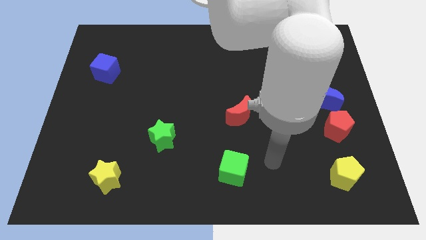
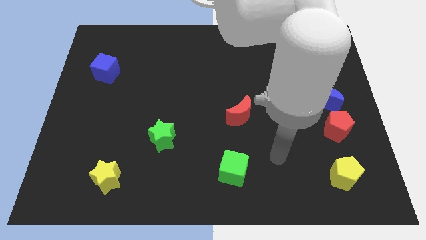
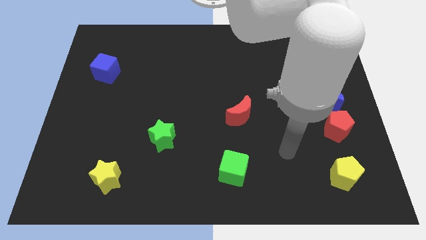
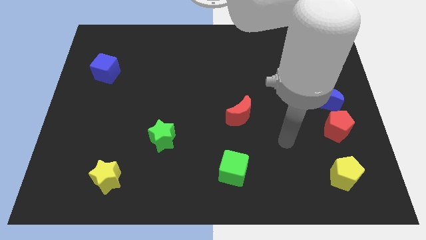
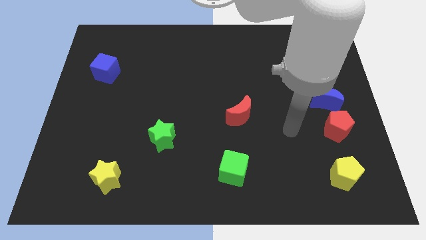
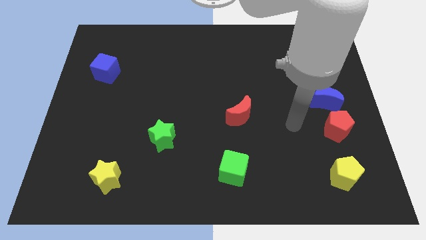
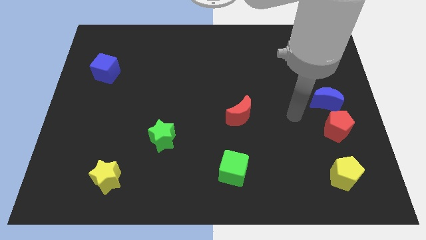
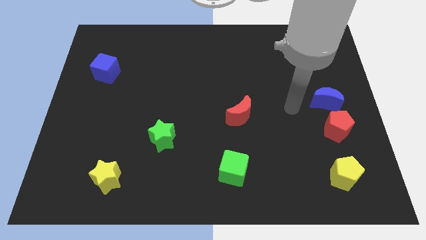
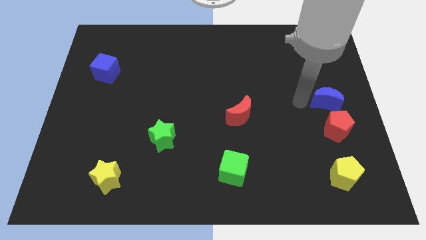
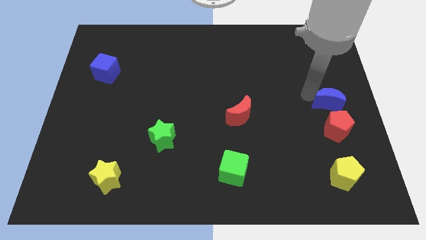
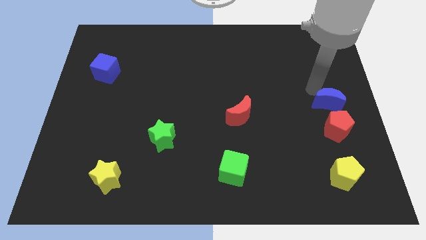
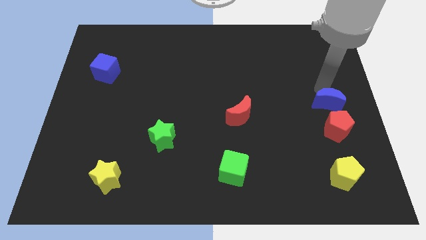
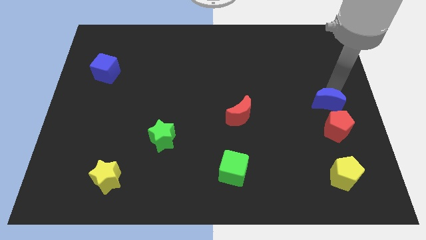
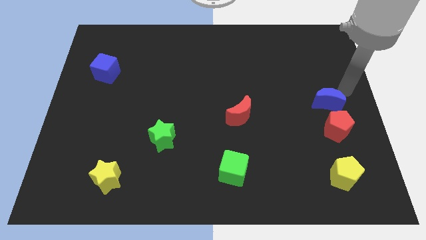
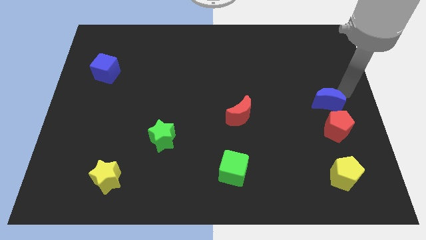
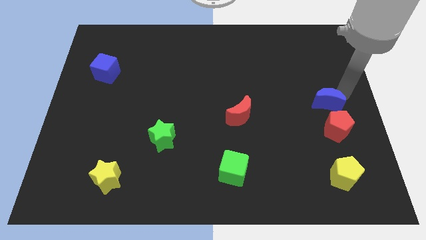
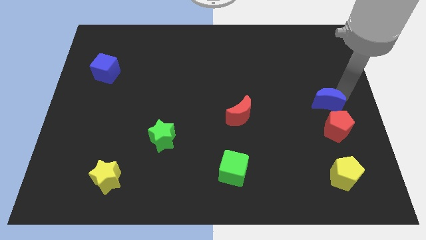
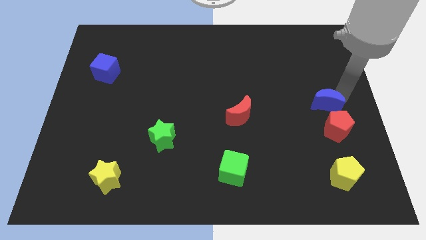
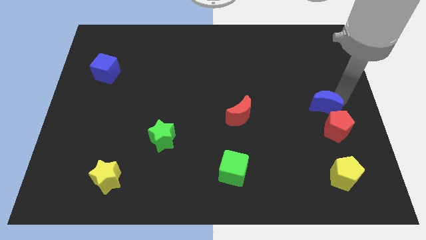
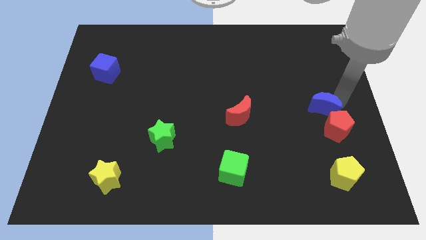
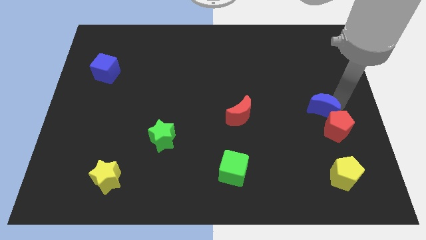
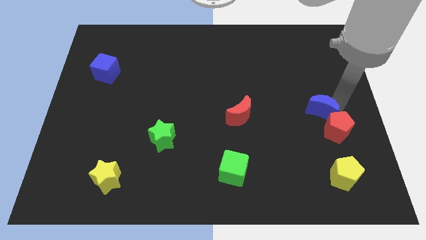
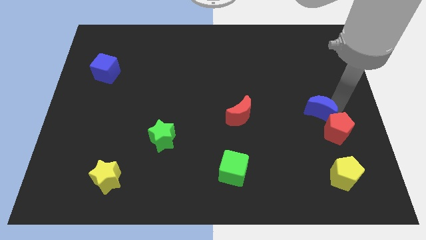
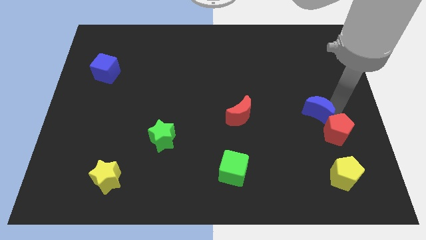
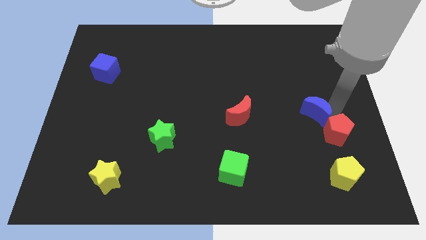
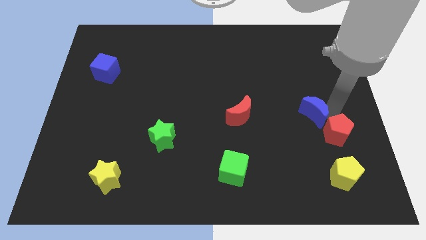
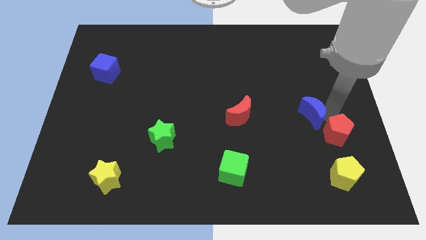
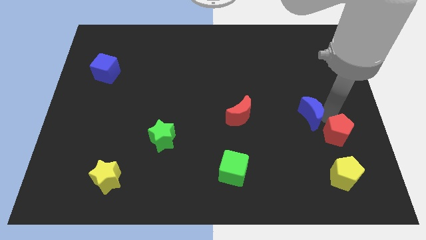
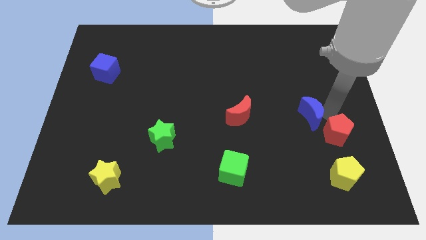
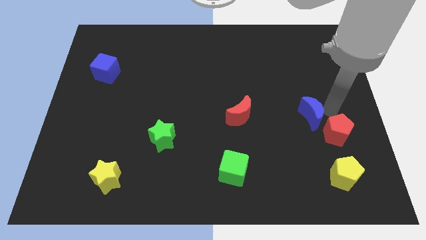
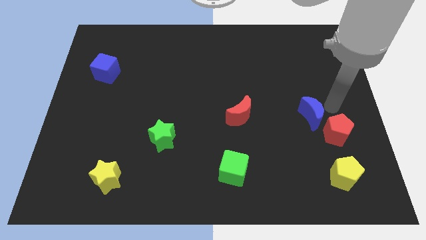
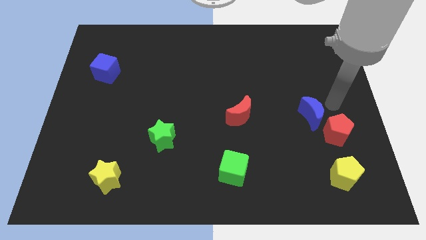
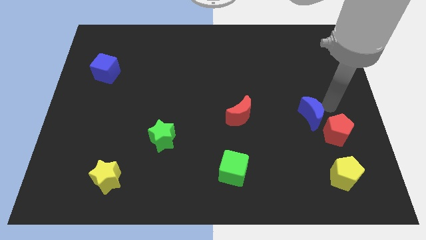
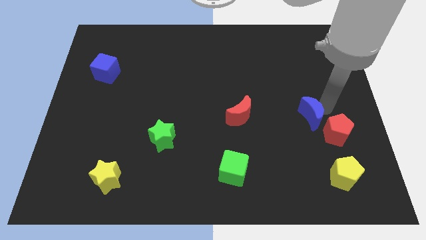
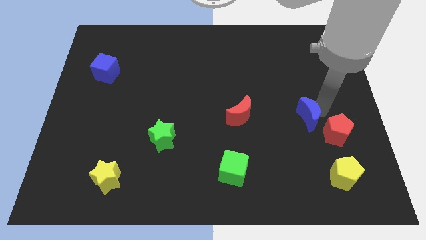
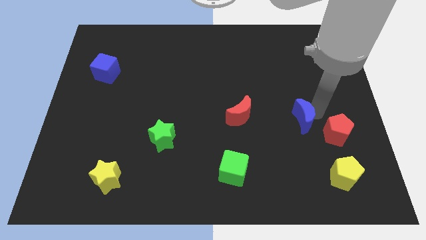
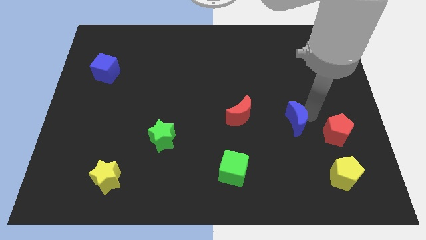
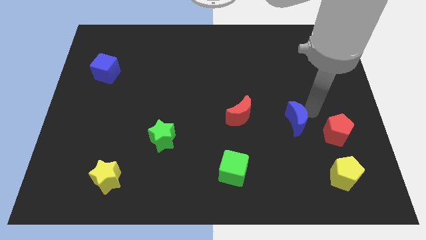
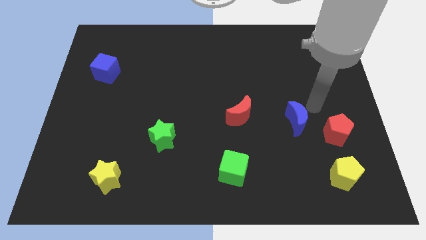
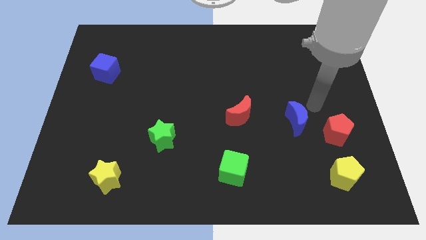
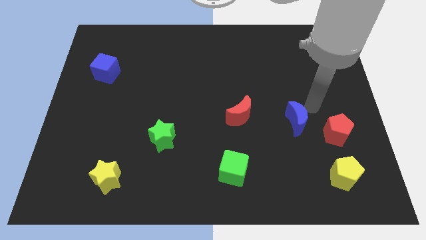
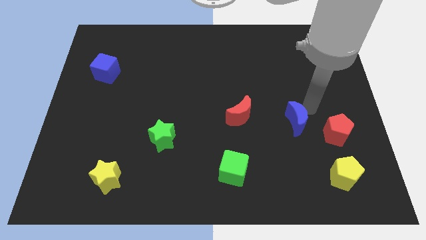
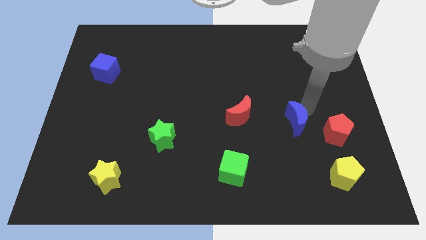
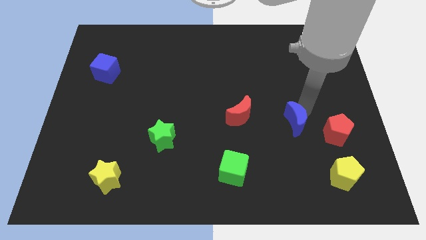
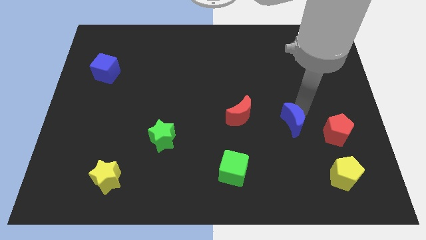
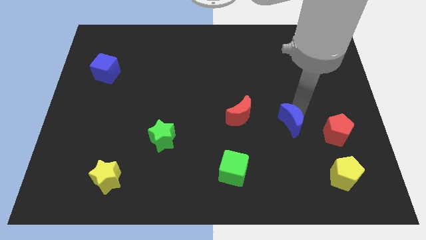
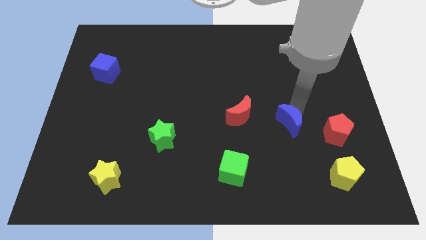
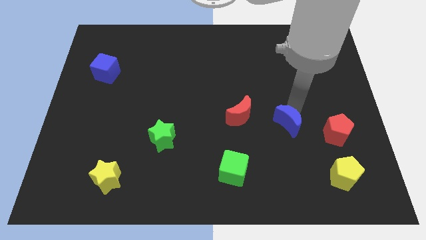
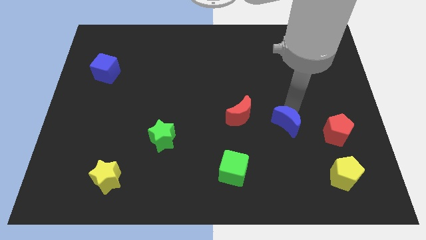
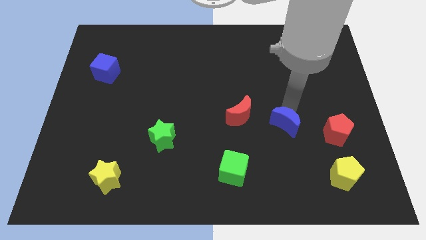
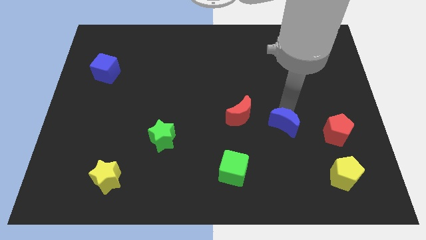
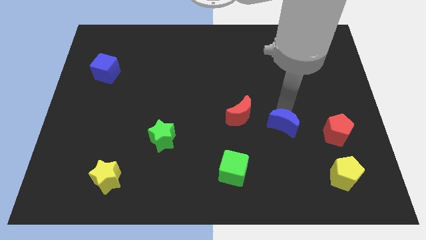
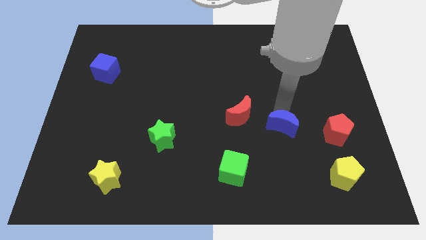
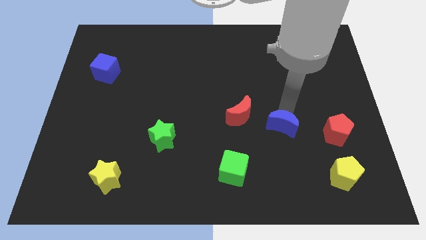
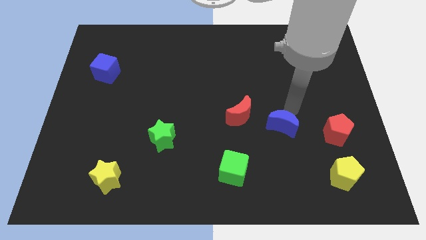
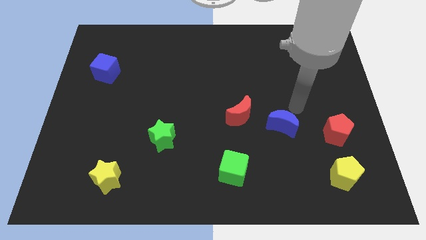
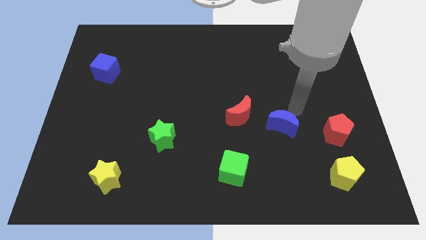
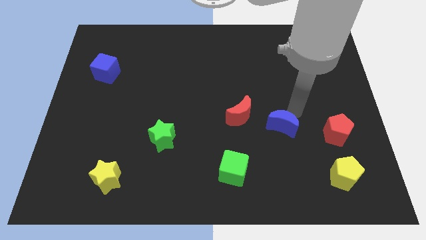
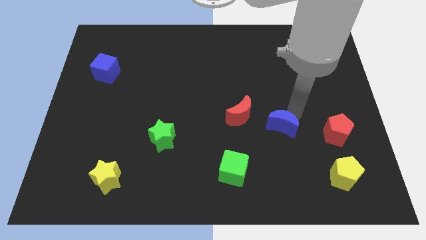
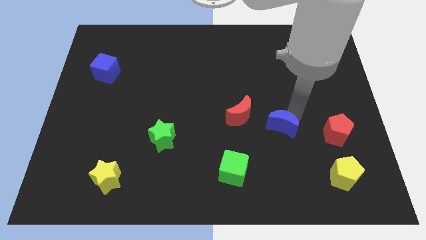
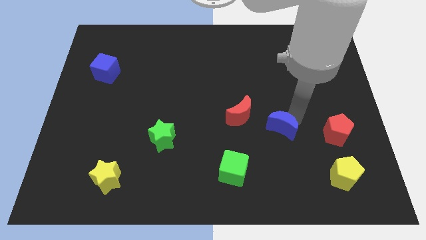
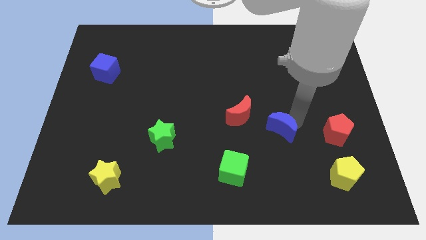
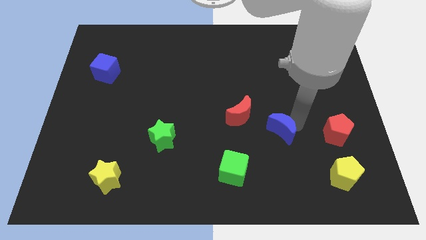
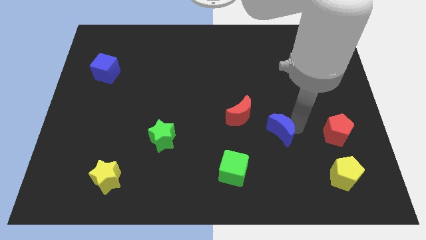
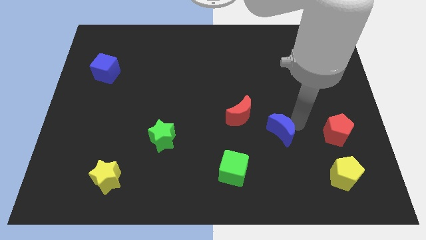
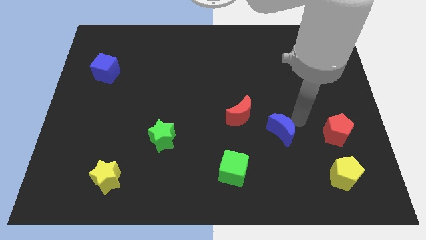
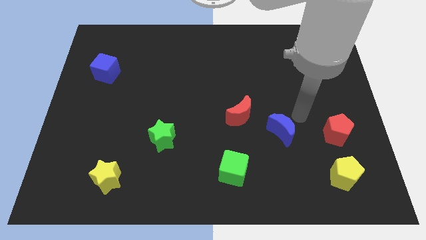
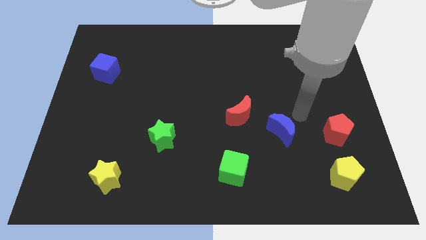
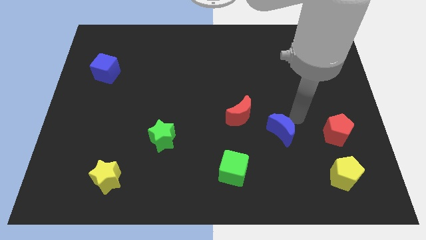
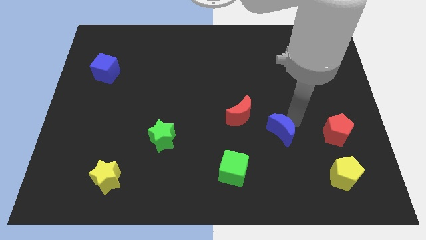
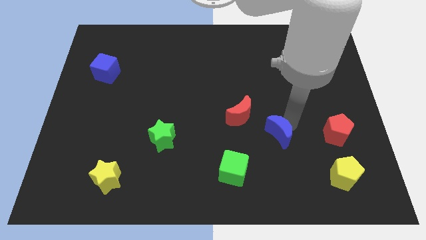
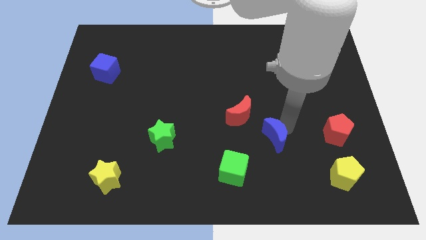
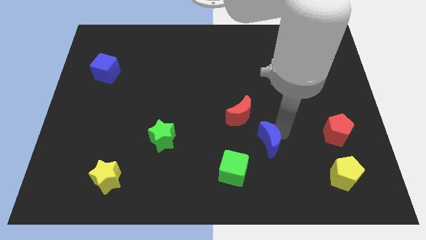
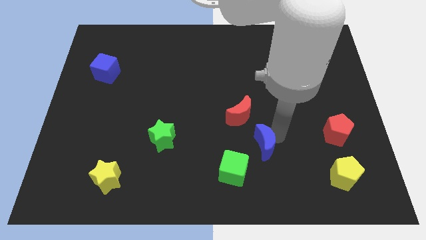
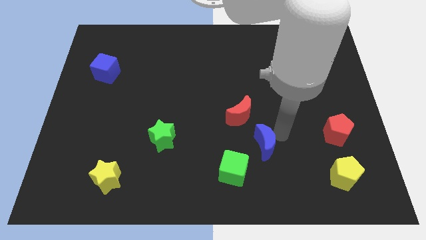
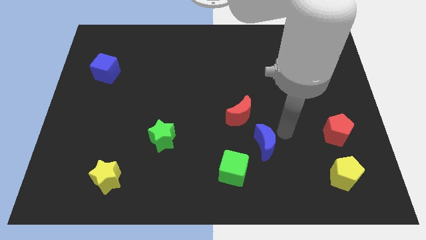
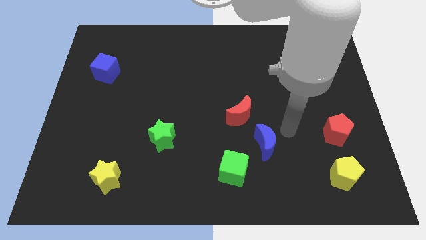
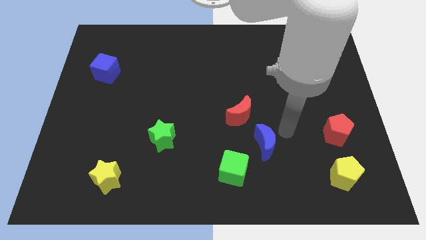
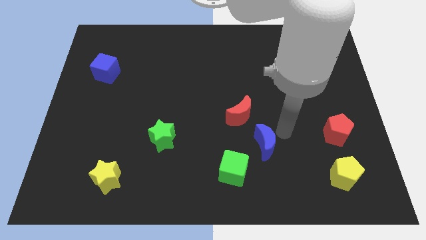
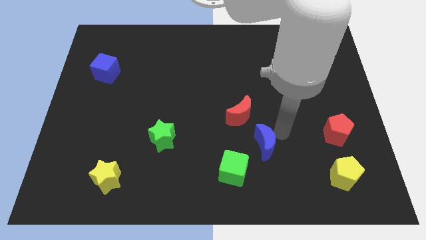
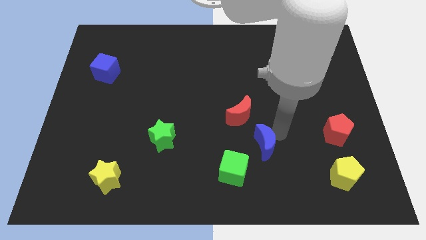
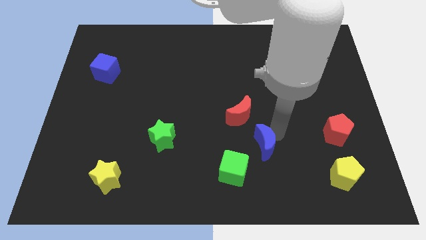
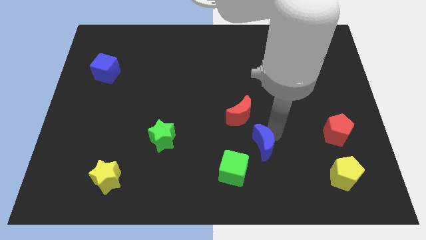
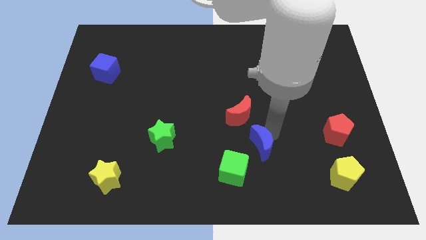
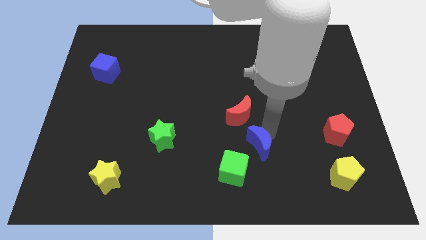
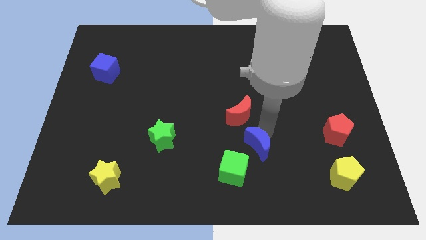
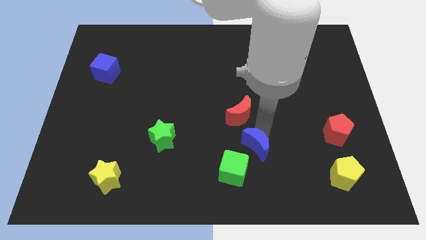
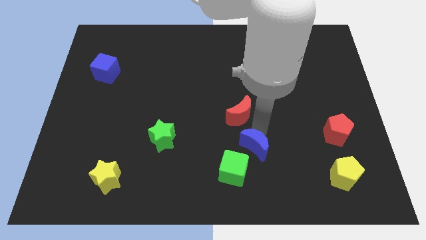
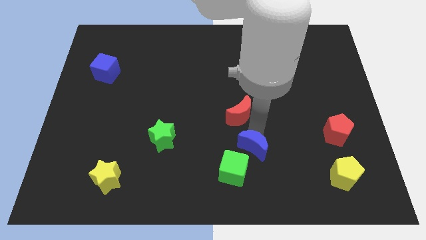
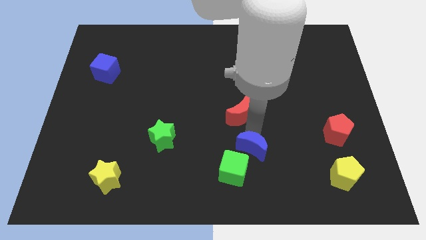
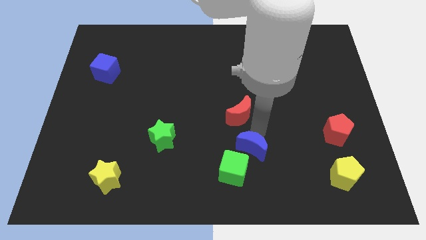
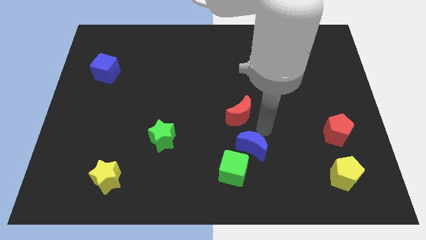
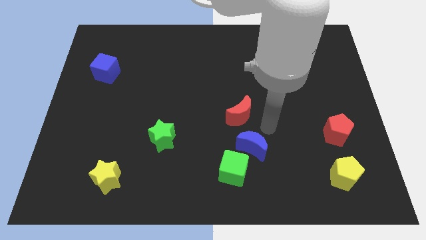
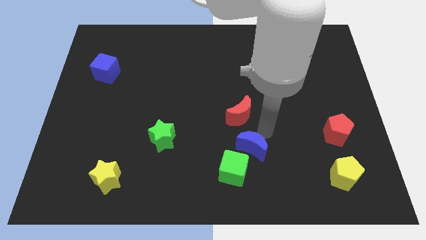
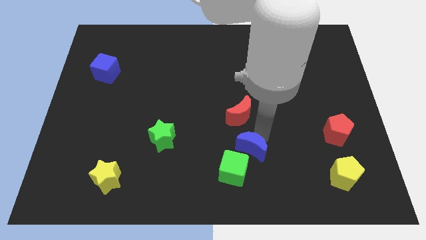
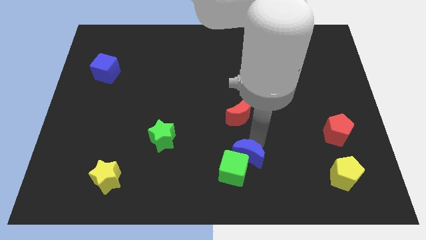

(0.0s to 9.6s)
push the blue moon towards the green cube
